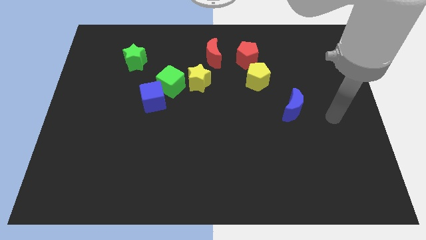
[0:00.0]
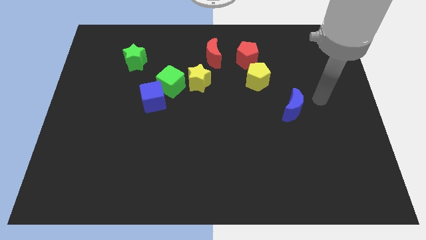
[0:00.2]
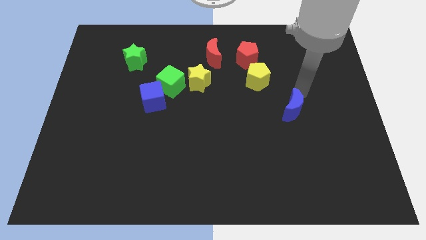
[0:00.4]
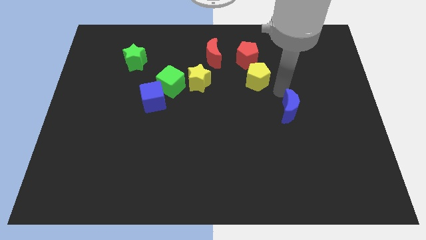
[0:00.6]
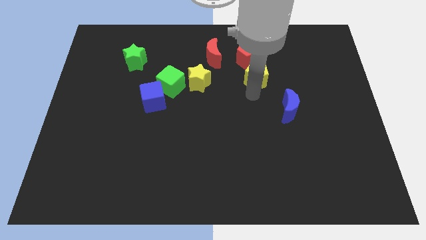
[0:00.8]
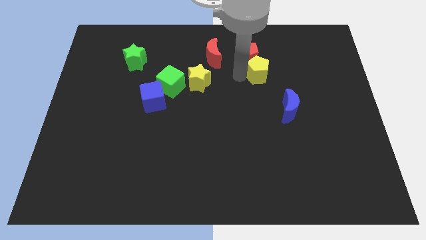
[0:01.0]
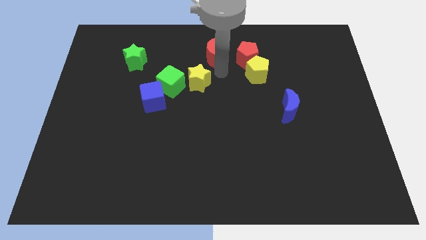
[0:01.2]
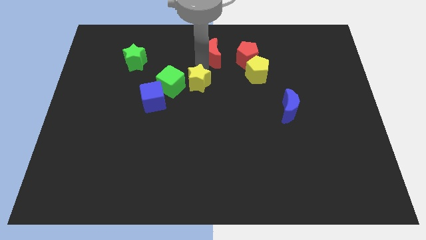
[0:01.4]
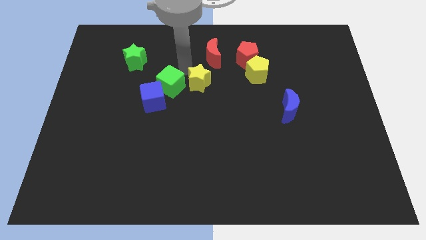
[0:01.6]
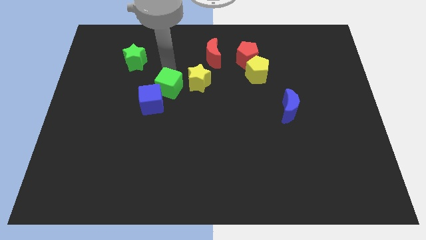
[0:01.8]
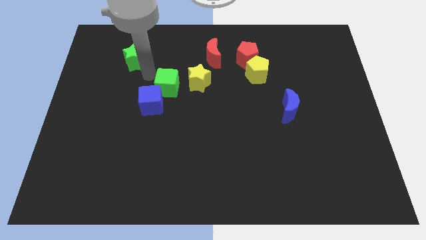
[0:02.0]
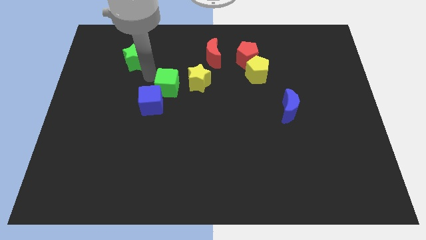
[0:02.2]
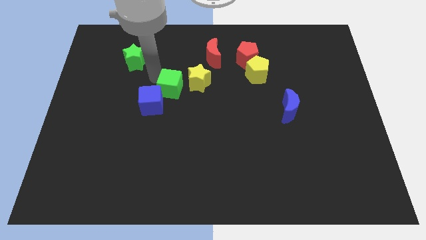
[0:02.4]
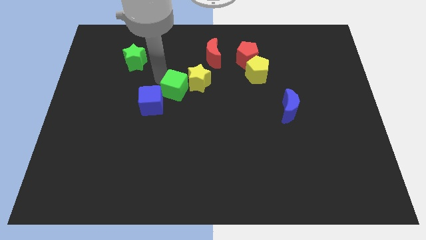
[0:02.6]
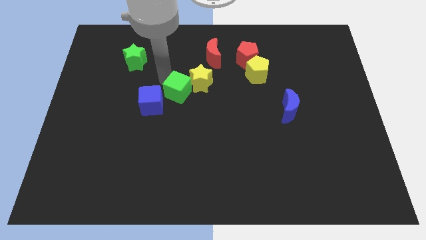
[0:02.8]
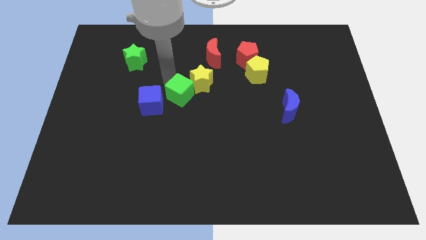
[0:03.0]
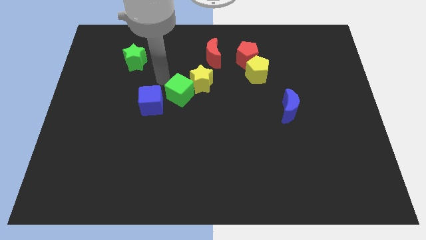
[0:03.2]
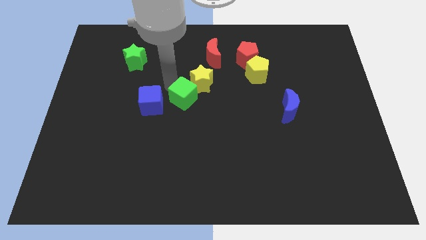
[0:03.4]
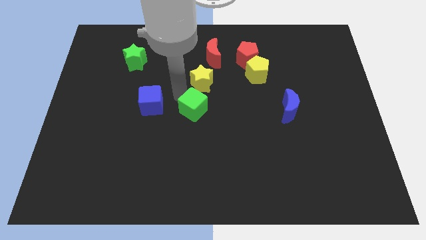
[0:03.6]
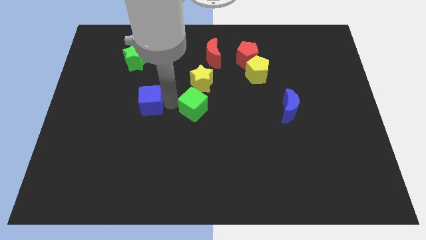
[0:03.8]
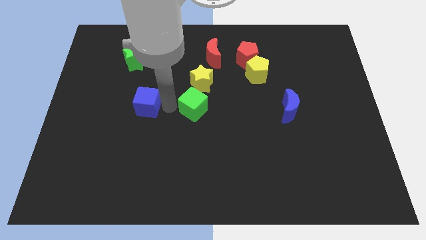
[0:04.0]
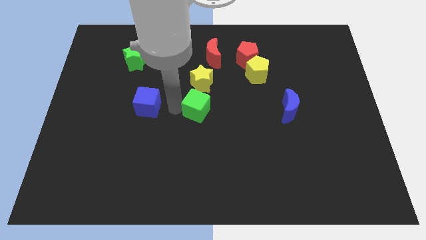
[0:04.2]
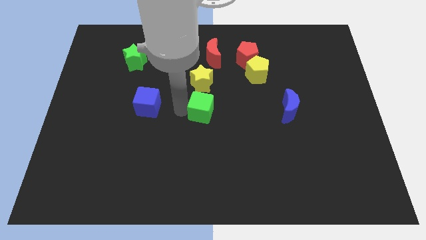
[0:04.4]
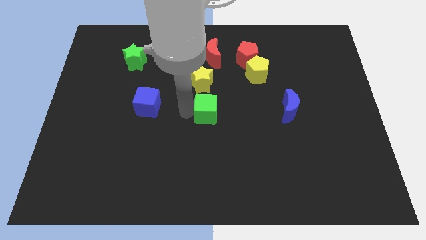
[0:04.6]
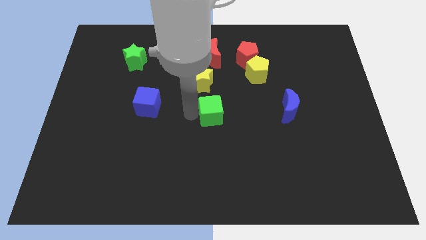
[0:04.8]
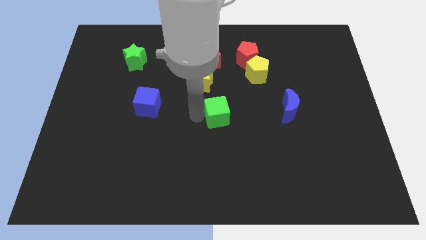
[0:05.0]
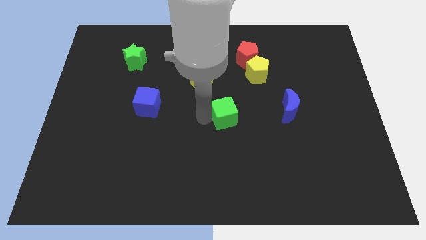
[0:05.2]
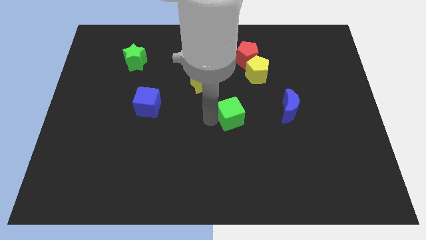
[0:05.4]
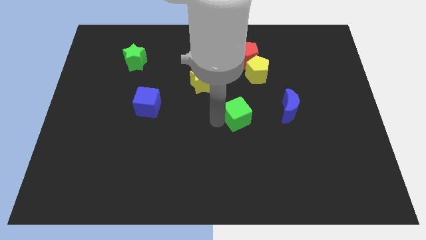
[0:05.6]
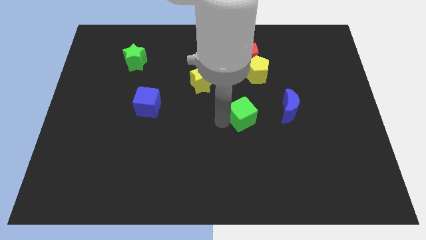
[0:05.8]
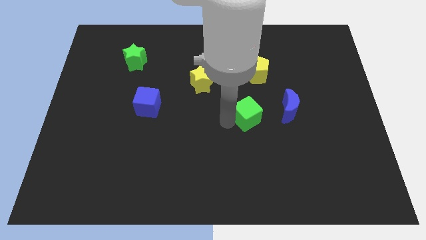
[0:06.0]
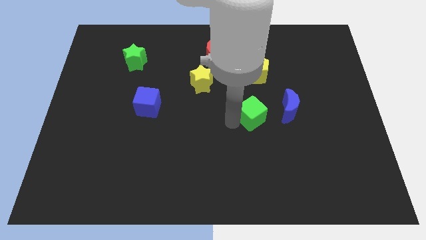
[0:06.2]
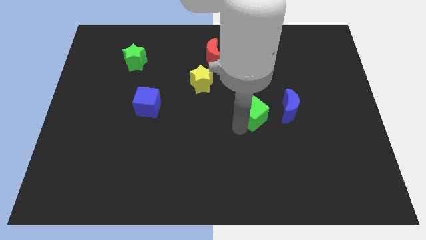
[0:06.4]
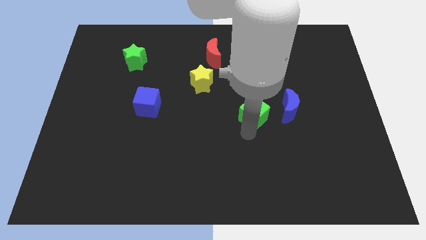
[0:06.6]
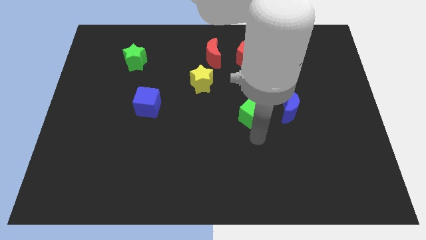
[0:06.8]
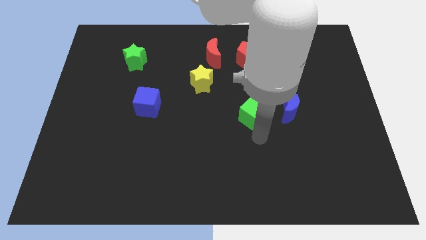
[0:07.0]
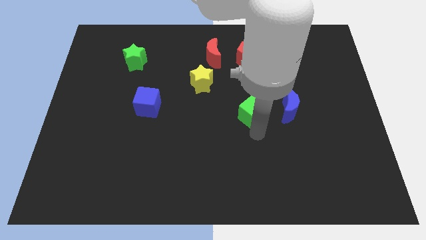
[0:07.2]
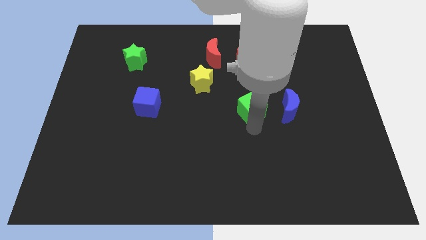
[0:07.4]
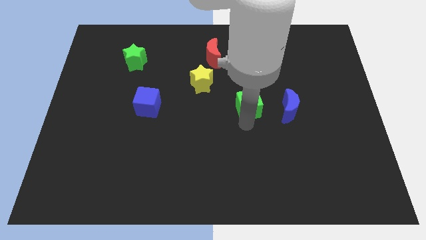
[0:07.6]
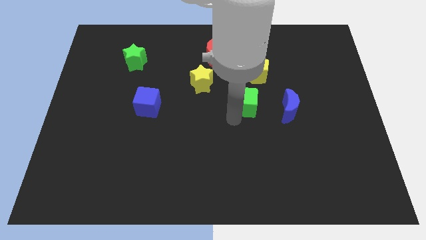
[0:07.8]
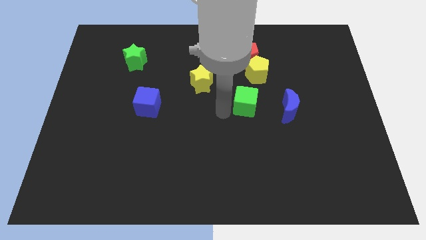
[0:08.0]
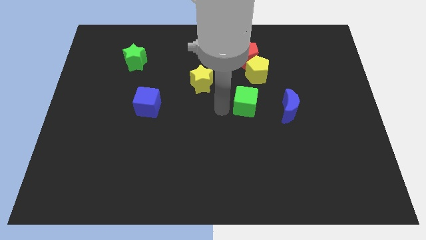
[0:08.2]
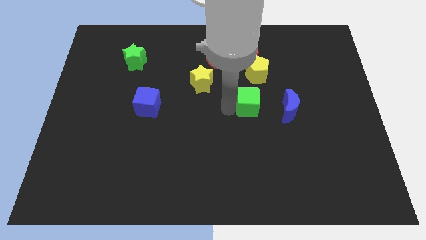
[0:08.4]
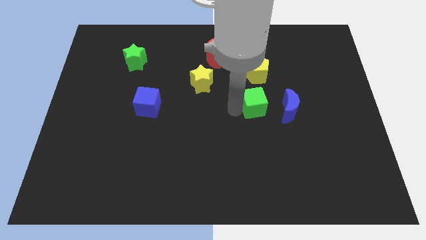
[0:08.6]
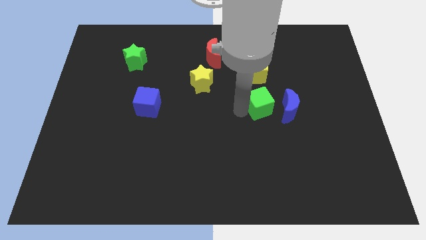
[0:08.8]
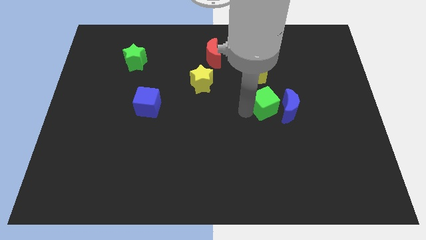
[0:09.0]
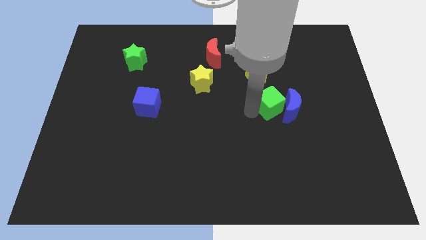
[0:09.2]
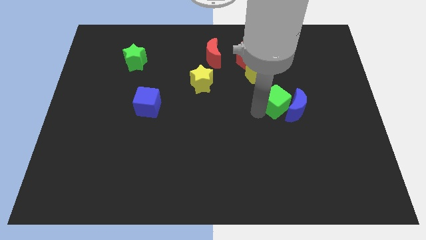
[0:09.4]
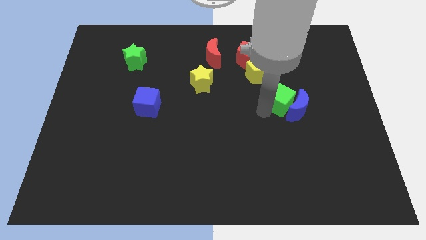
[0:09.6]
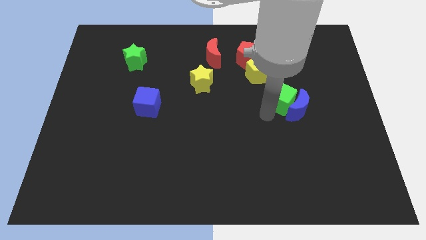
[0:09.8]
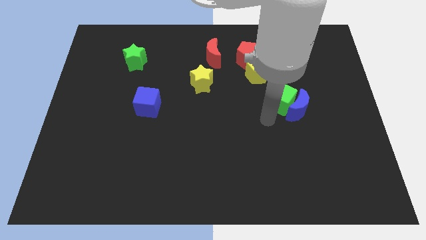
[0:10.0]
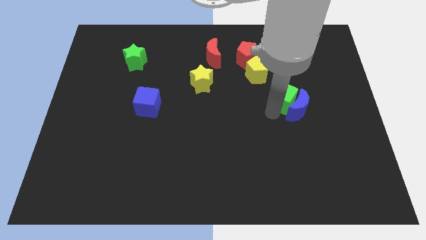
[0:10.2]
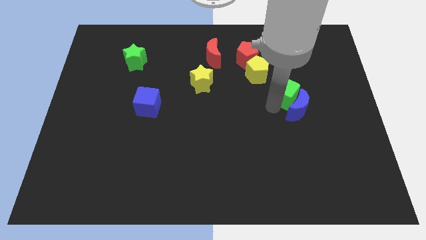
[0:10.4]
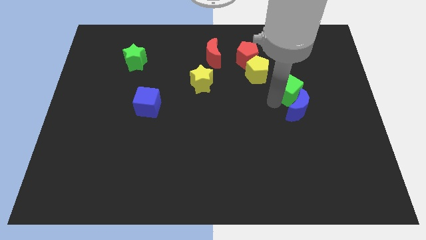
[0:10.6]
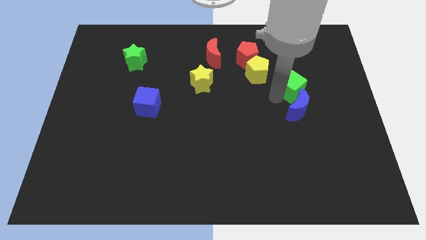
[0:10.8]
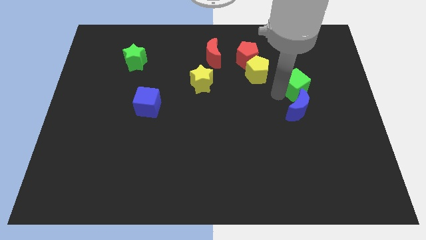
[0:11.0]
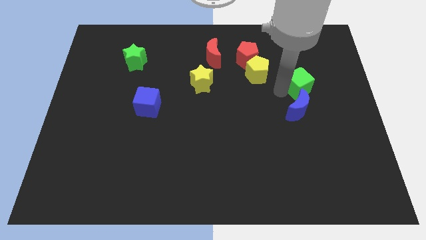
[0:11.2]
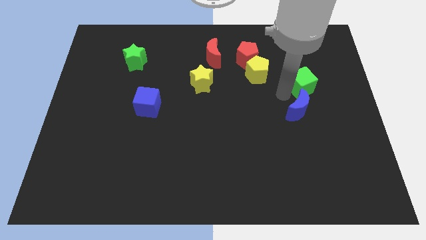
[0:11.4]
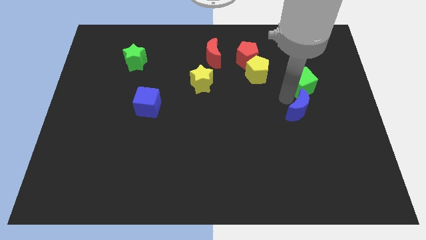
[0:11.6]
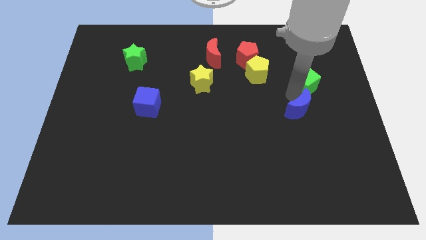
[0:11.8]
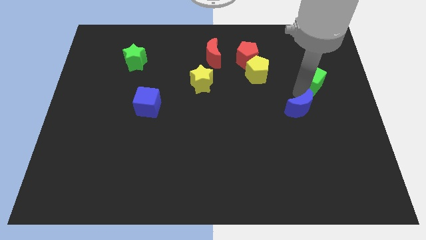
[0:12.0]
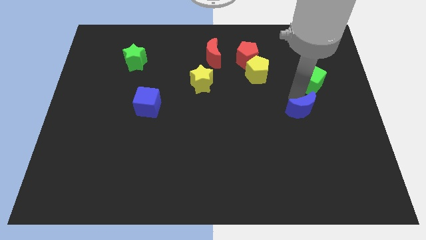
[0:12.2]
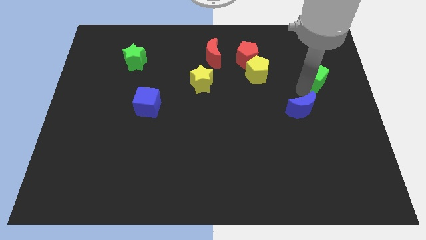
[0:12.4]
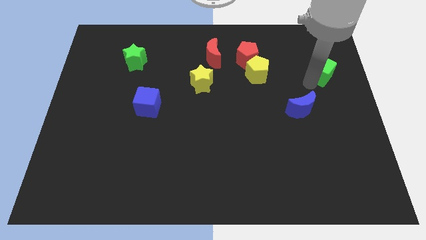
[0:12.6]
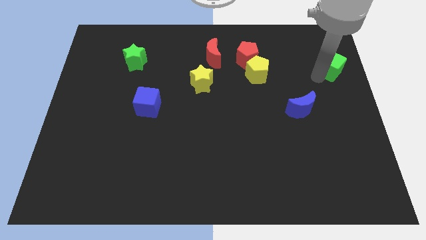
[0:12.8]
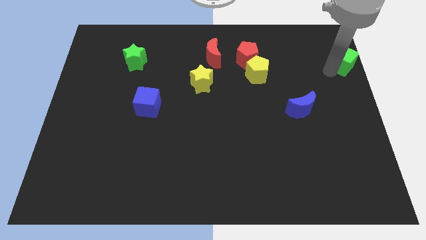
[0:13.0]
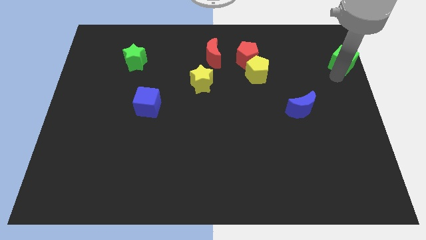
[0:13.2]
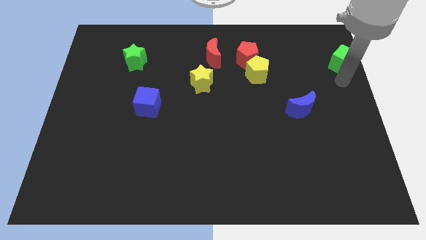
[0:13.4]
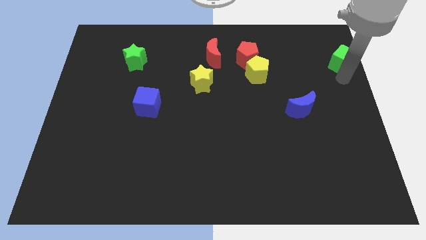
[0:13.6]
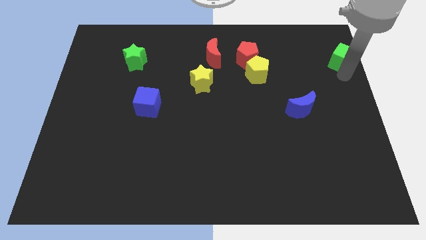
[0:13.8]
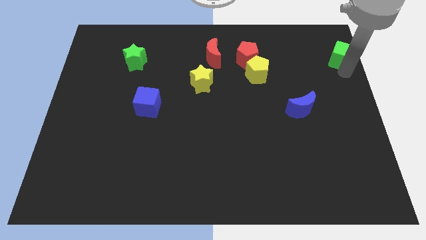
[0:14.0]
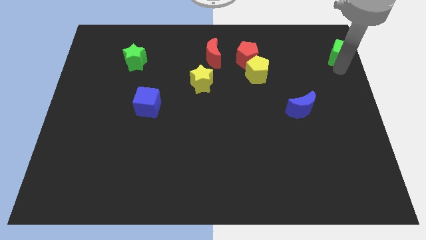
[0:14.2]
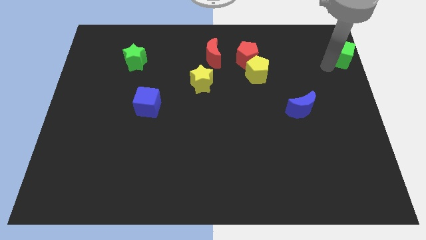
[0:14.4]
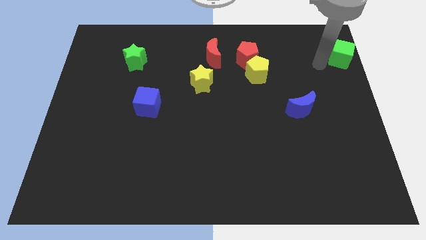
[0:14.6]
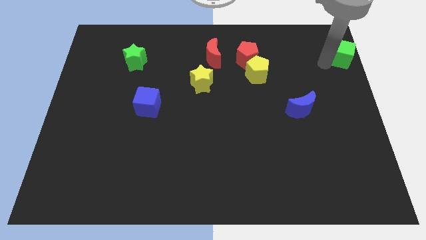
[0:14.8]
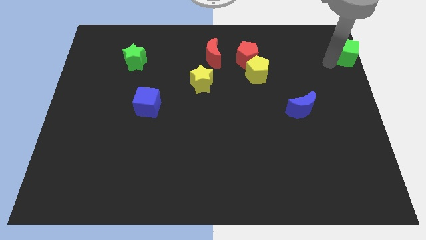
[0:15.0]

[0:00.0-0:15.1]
slide the green cube to the top right
